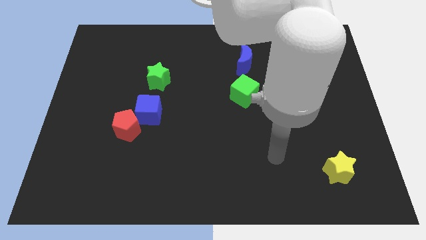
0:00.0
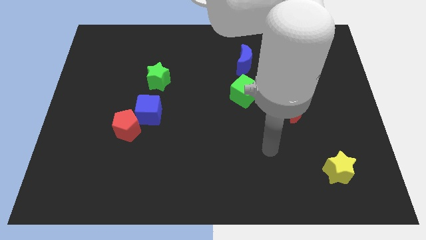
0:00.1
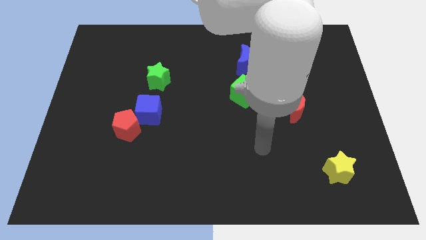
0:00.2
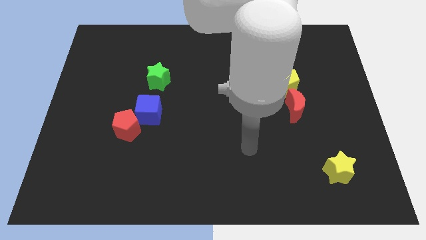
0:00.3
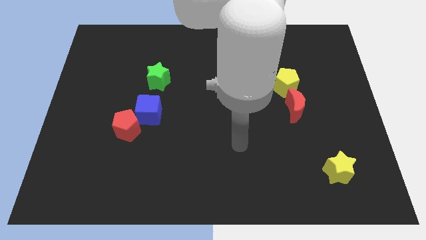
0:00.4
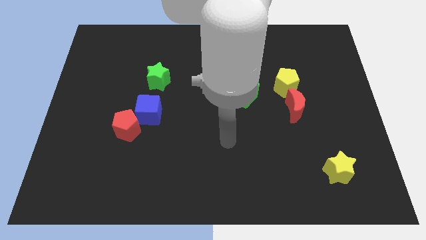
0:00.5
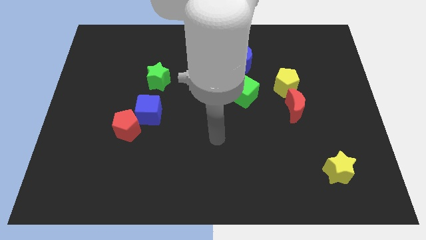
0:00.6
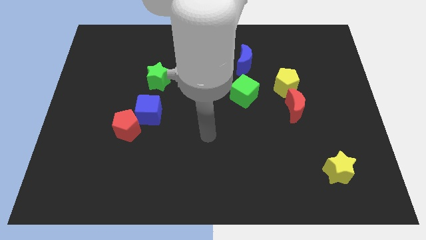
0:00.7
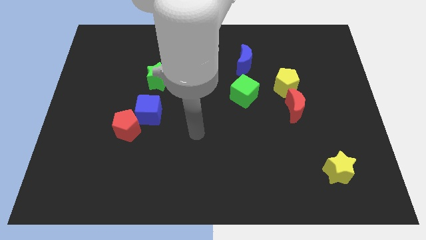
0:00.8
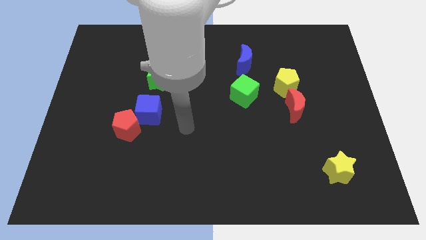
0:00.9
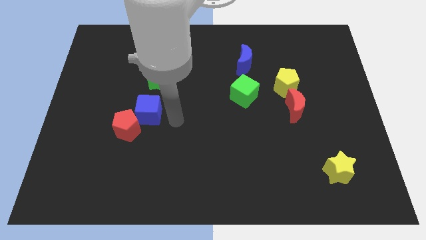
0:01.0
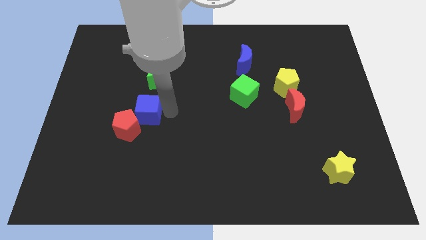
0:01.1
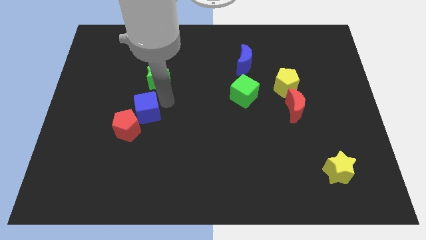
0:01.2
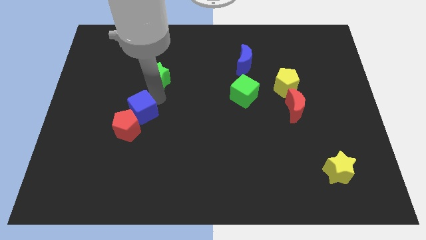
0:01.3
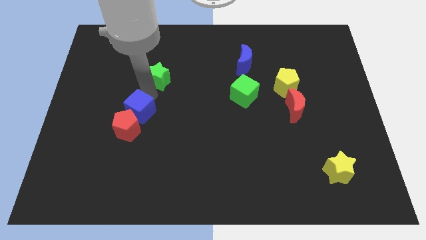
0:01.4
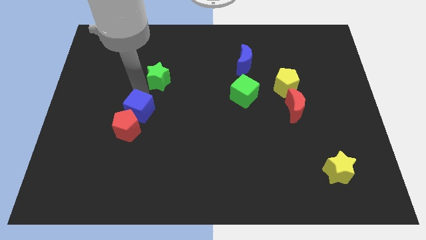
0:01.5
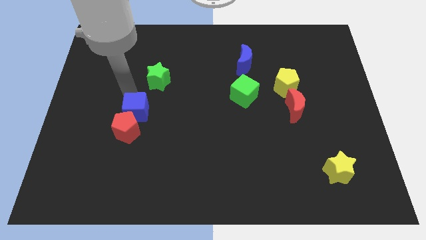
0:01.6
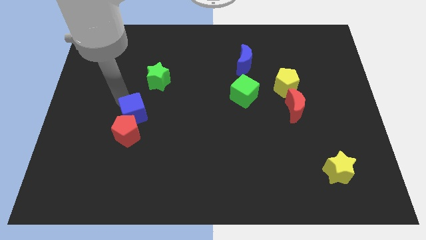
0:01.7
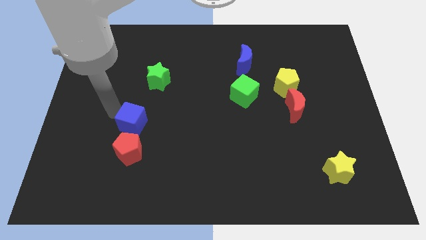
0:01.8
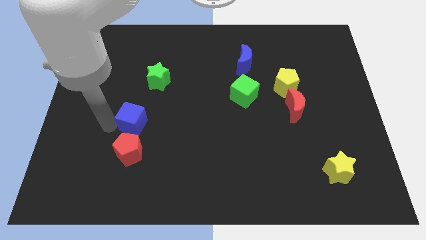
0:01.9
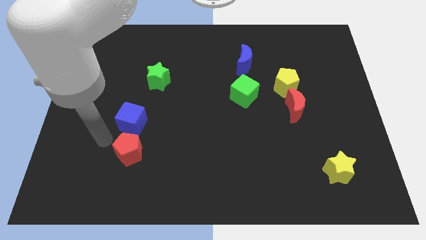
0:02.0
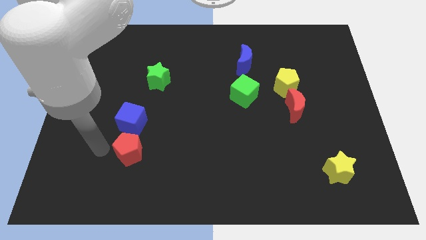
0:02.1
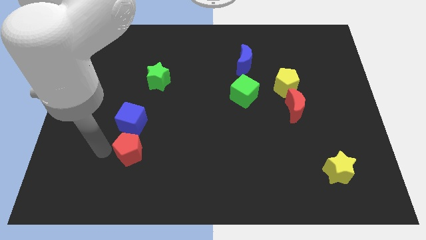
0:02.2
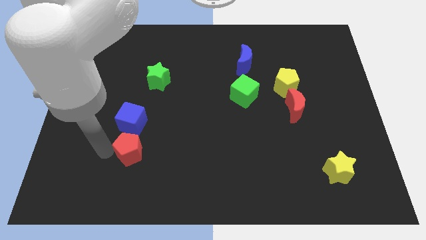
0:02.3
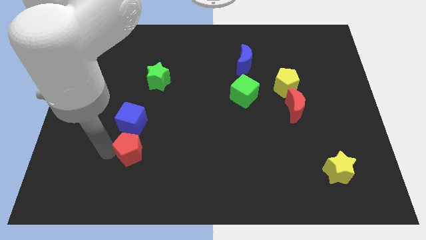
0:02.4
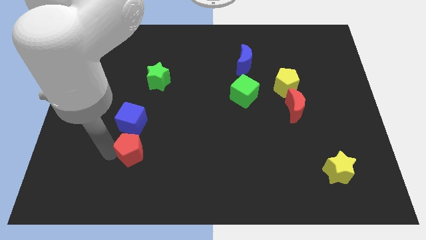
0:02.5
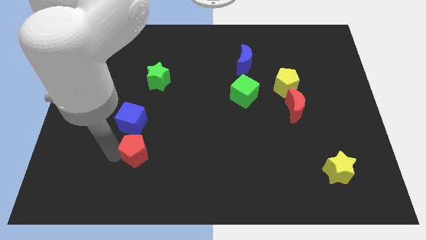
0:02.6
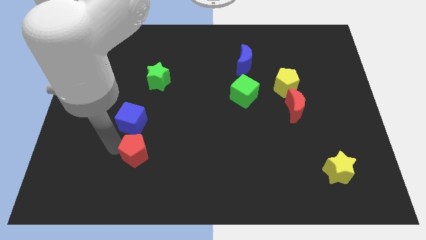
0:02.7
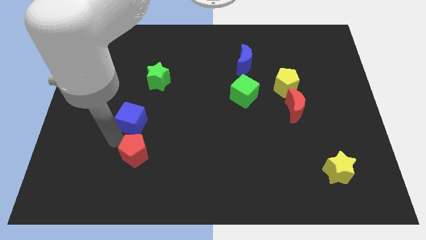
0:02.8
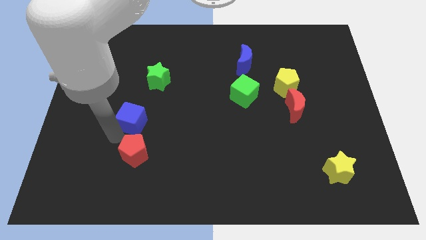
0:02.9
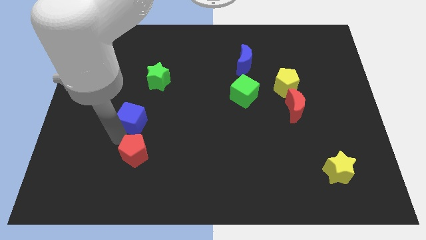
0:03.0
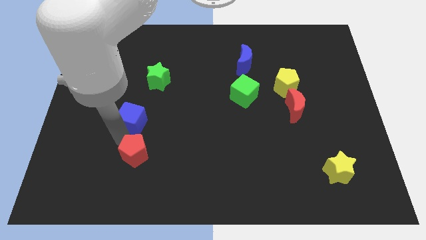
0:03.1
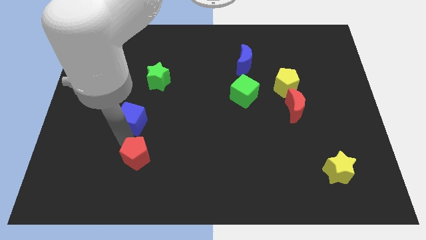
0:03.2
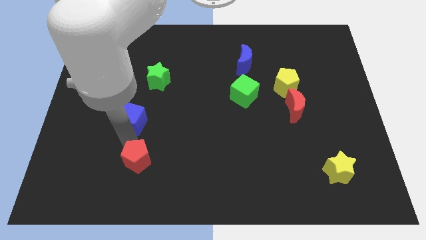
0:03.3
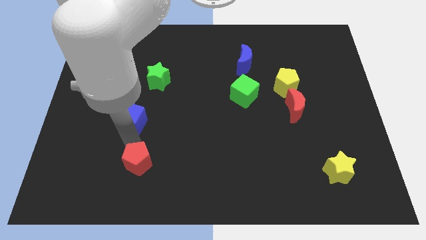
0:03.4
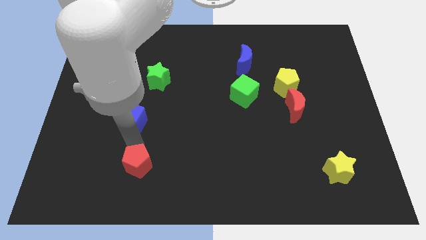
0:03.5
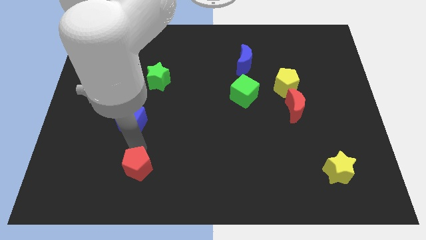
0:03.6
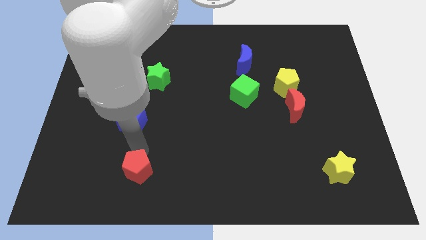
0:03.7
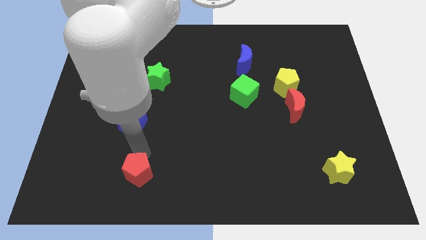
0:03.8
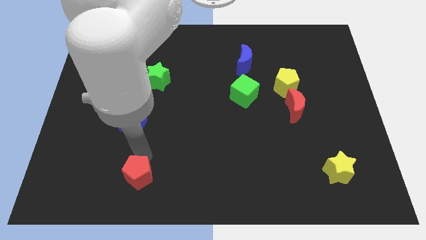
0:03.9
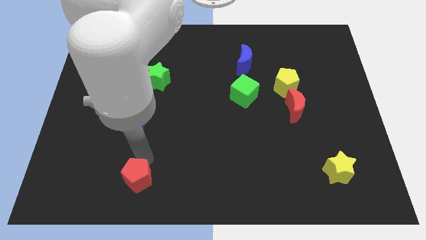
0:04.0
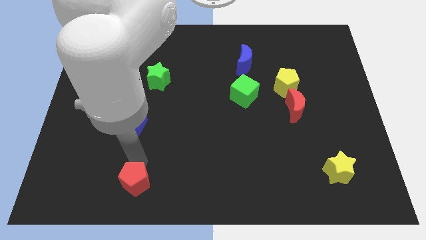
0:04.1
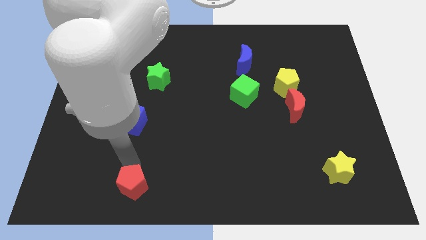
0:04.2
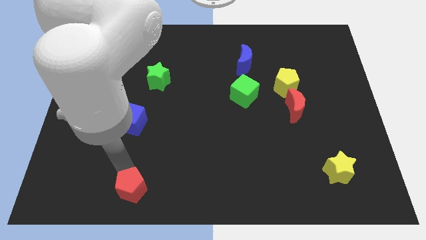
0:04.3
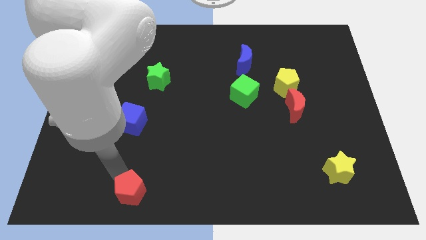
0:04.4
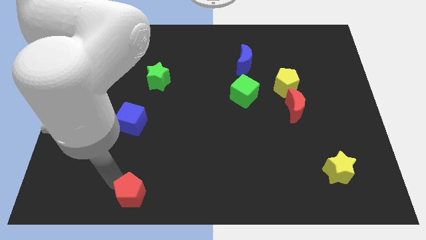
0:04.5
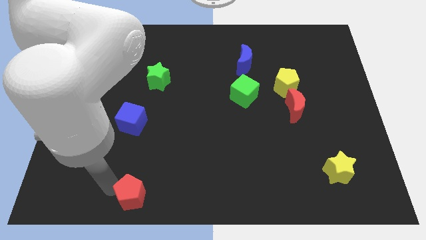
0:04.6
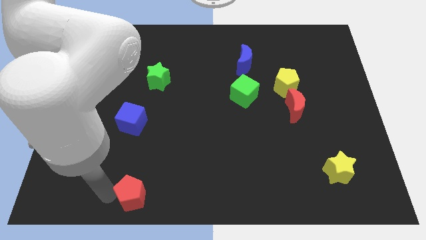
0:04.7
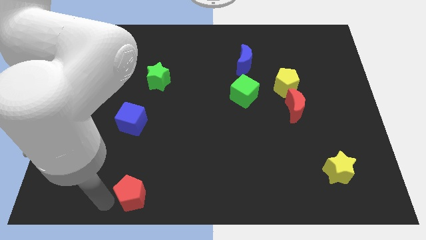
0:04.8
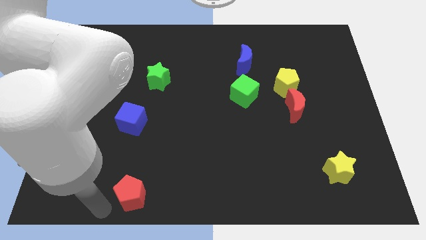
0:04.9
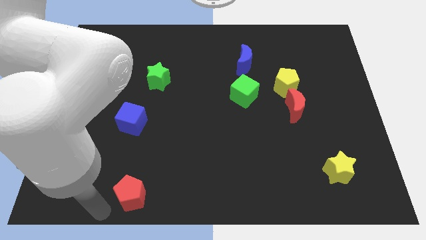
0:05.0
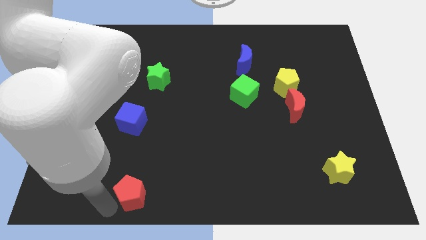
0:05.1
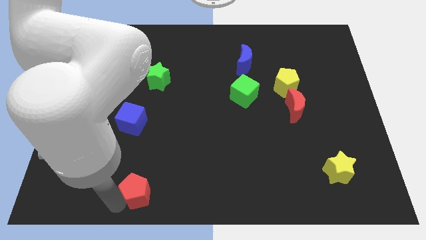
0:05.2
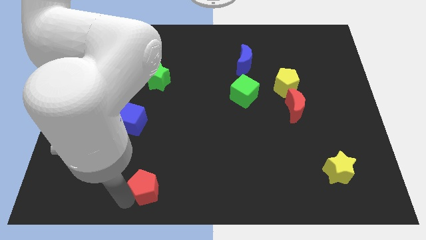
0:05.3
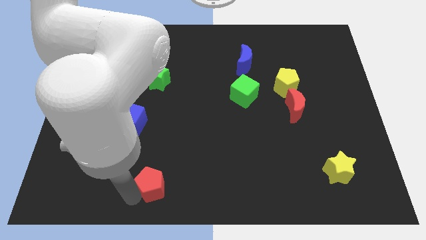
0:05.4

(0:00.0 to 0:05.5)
push the red pentagon to the bottom side

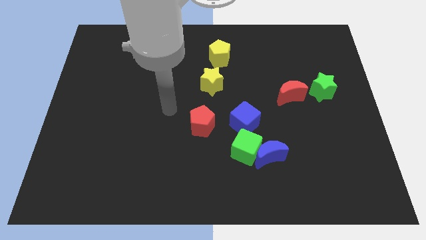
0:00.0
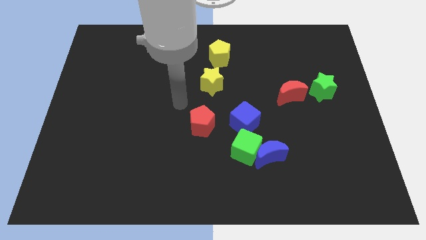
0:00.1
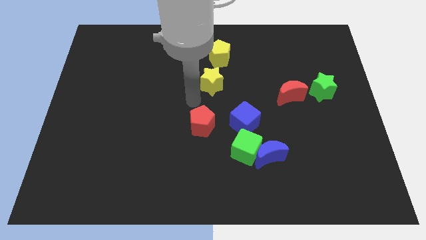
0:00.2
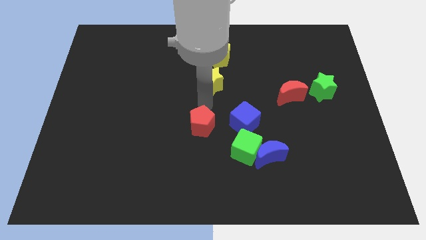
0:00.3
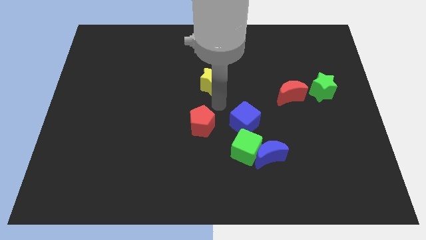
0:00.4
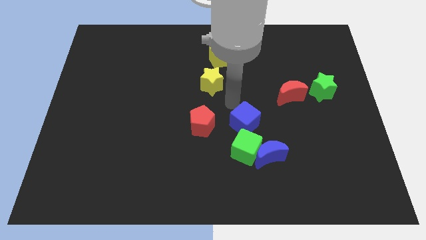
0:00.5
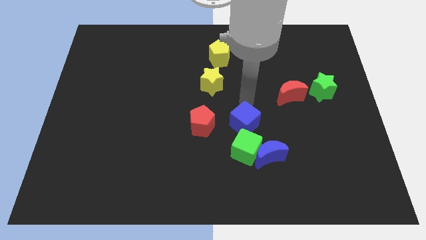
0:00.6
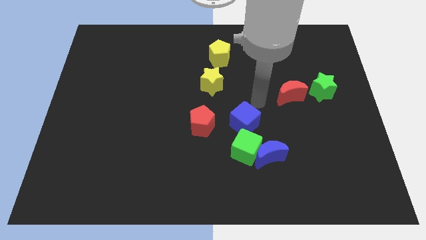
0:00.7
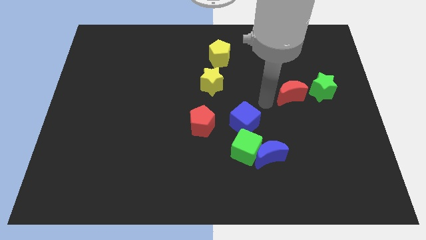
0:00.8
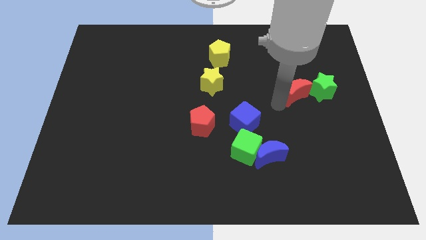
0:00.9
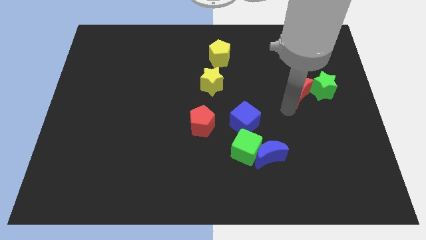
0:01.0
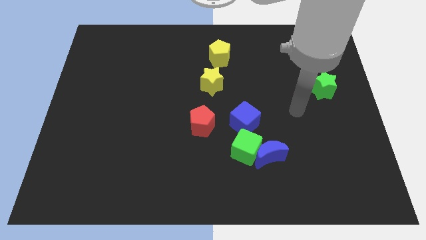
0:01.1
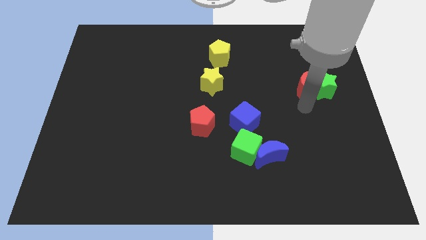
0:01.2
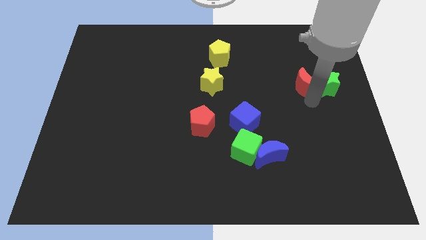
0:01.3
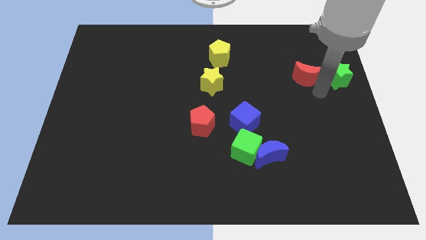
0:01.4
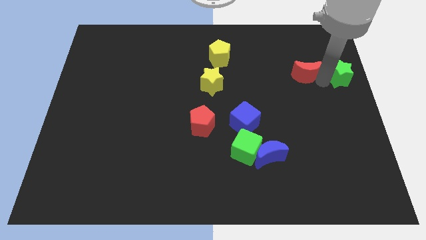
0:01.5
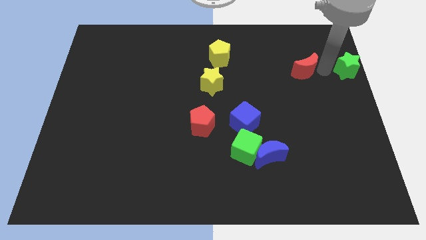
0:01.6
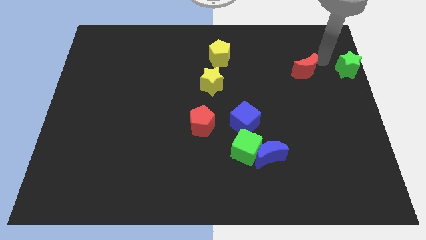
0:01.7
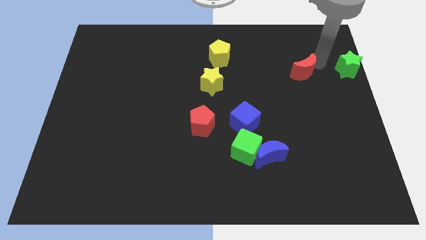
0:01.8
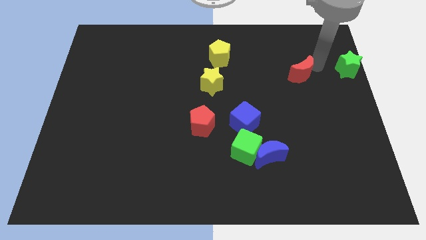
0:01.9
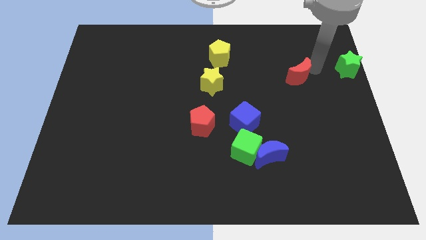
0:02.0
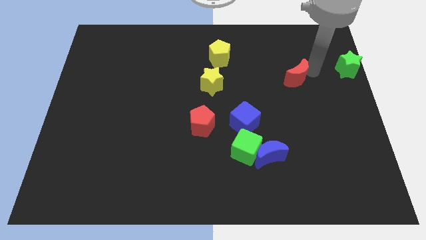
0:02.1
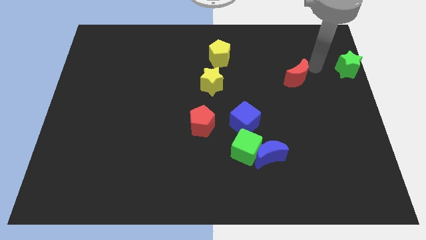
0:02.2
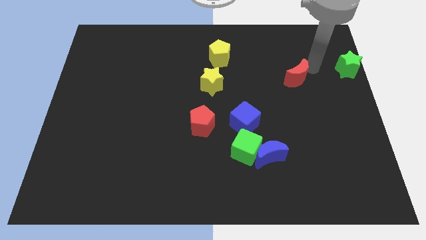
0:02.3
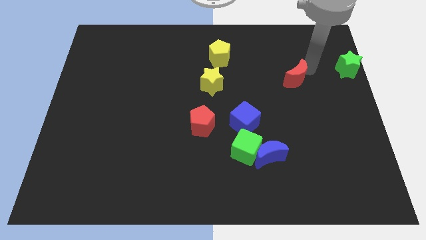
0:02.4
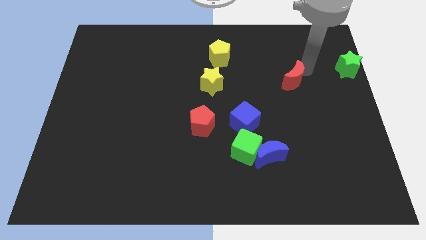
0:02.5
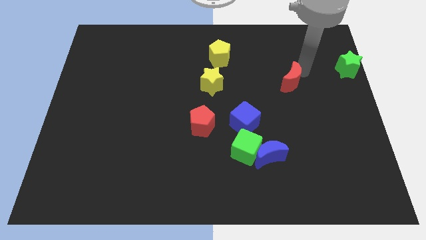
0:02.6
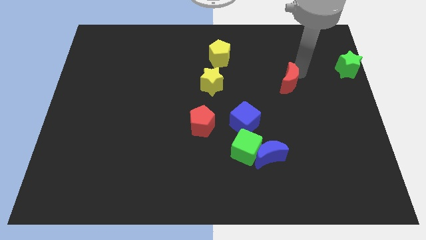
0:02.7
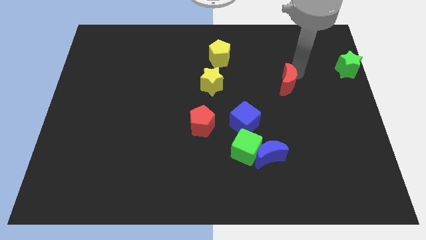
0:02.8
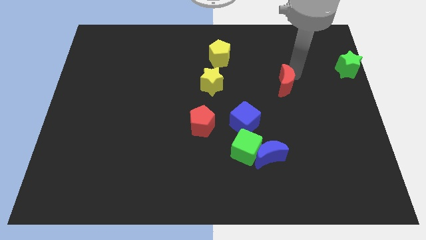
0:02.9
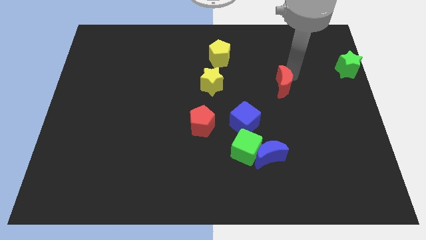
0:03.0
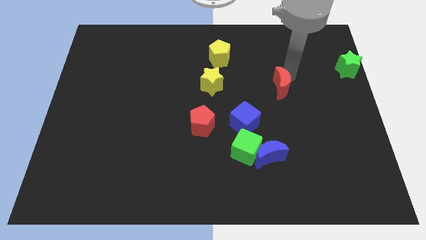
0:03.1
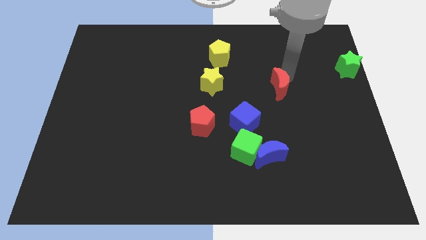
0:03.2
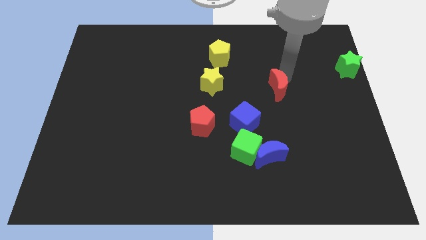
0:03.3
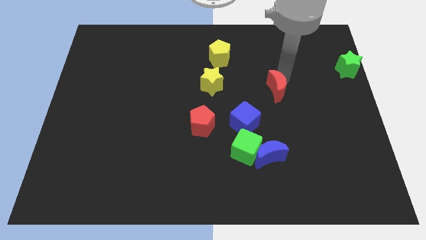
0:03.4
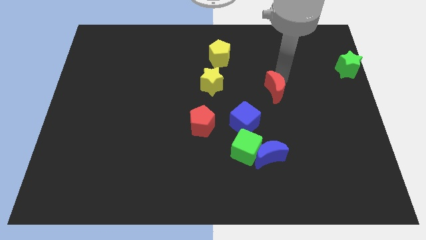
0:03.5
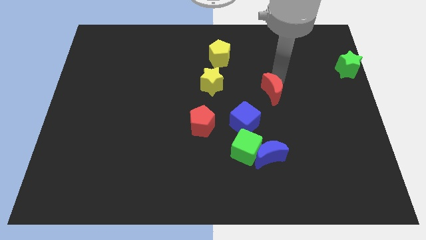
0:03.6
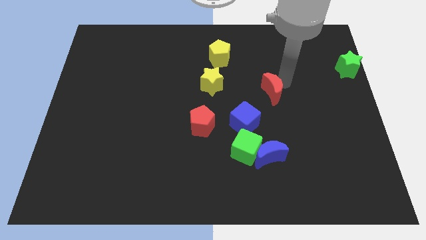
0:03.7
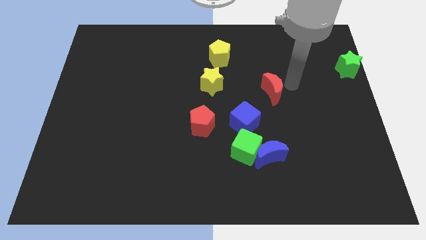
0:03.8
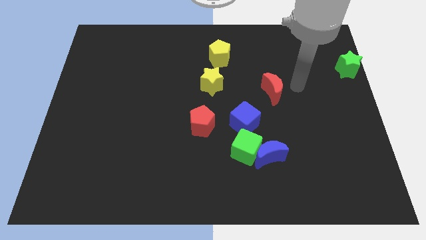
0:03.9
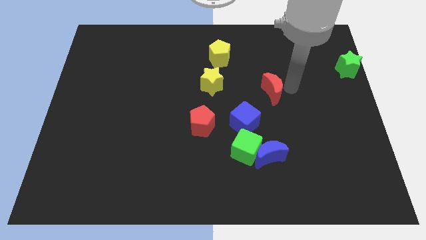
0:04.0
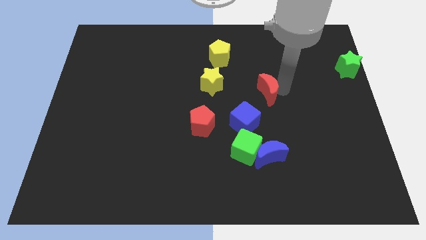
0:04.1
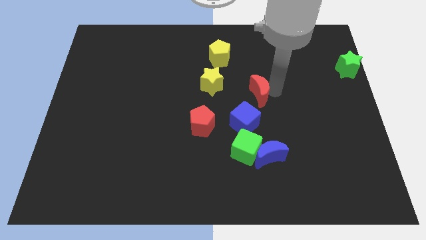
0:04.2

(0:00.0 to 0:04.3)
put the red moon to the center of the board
